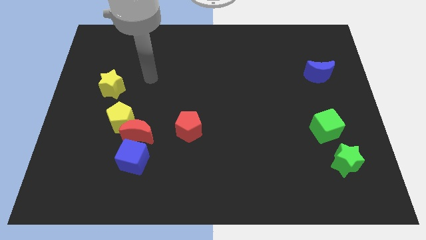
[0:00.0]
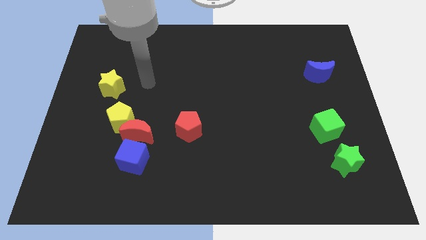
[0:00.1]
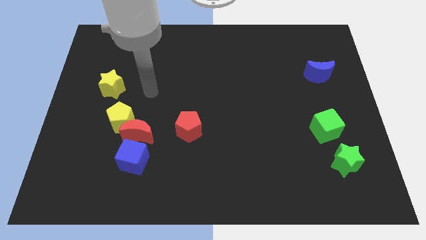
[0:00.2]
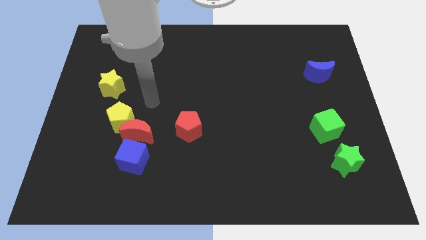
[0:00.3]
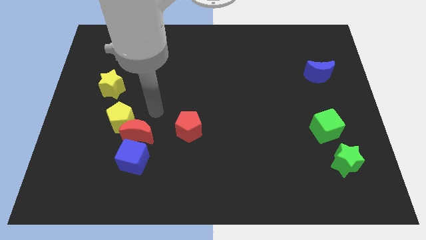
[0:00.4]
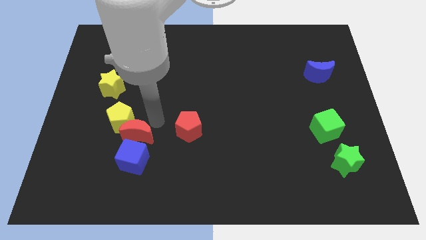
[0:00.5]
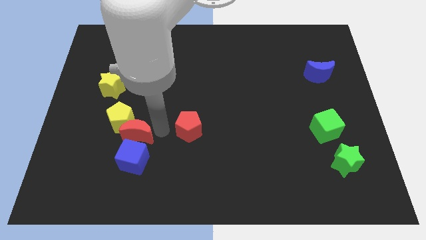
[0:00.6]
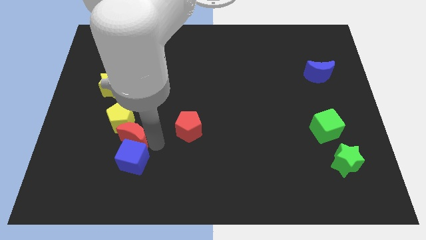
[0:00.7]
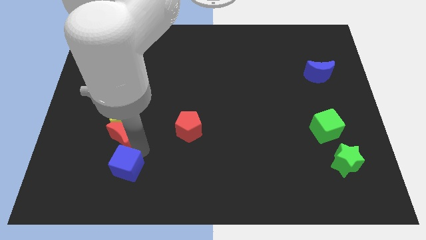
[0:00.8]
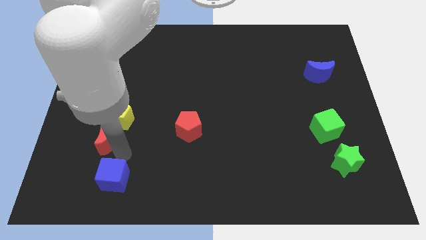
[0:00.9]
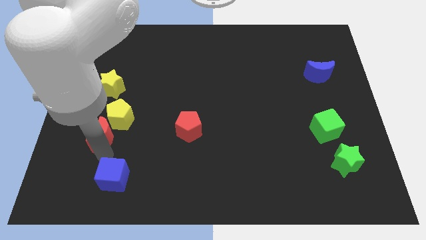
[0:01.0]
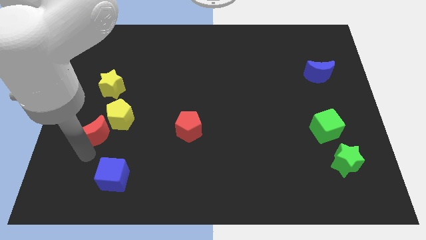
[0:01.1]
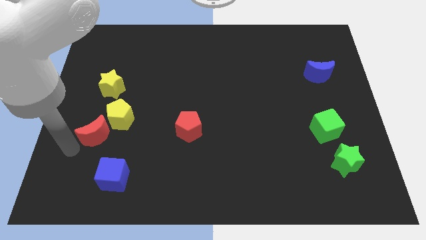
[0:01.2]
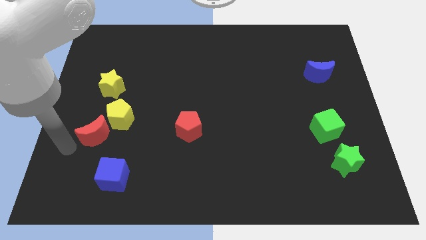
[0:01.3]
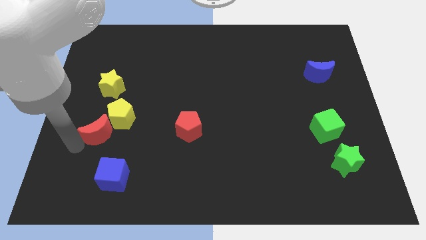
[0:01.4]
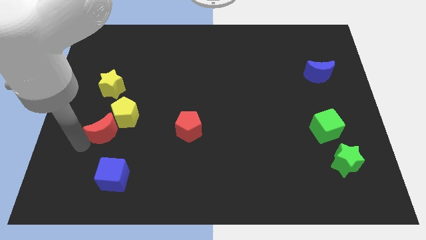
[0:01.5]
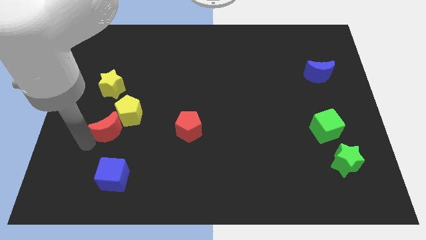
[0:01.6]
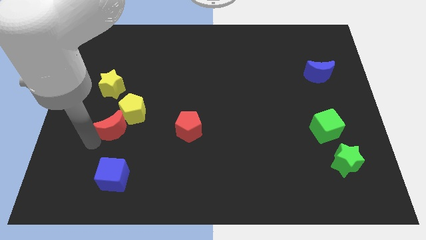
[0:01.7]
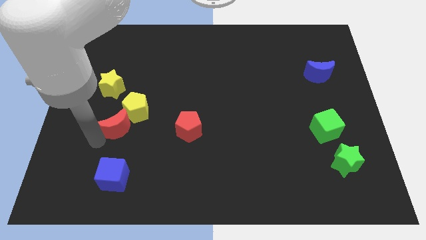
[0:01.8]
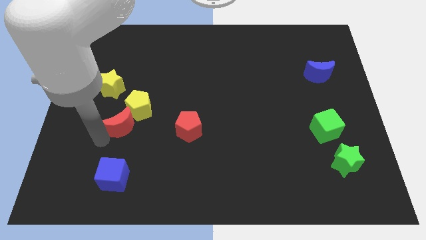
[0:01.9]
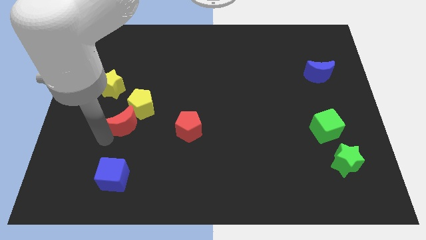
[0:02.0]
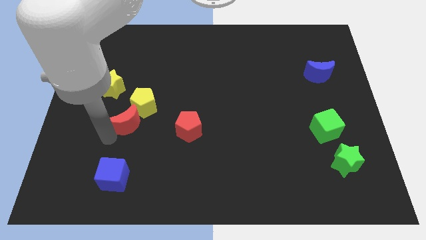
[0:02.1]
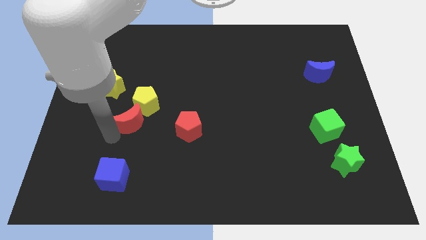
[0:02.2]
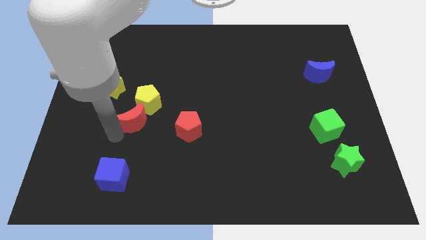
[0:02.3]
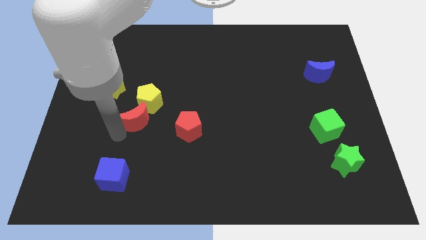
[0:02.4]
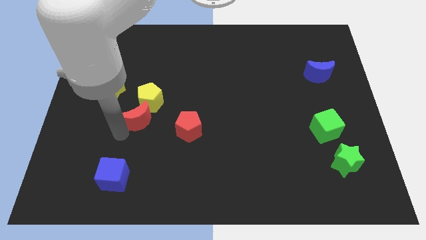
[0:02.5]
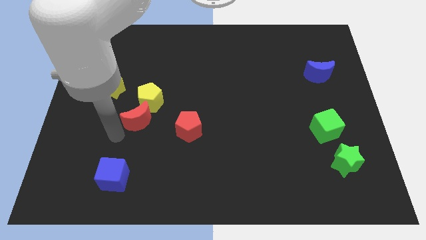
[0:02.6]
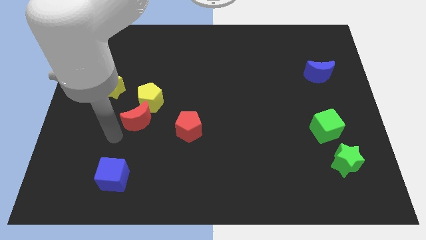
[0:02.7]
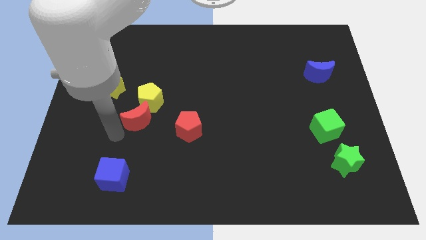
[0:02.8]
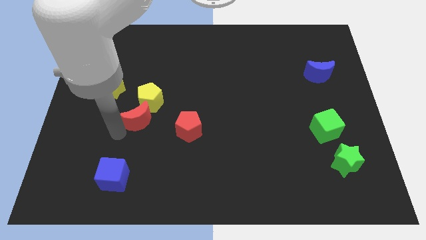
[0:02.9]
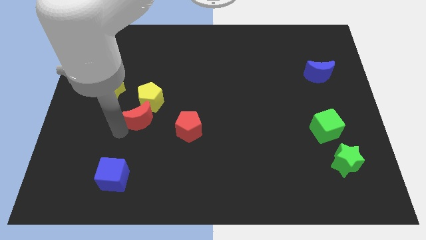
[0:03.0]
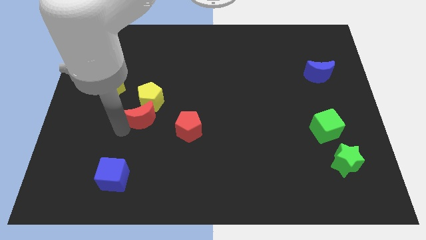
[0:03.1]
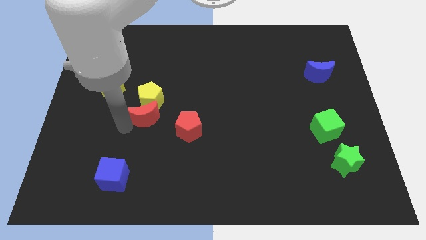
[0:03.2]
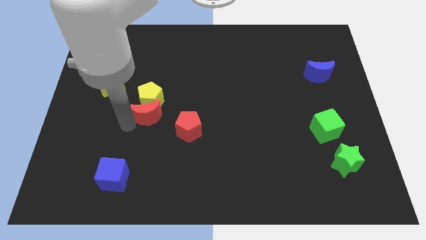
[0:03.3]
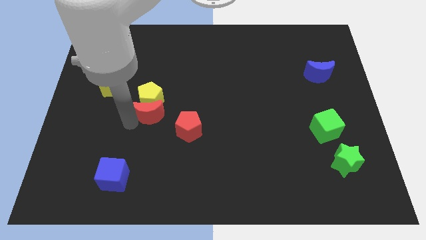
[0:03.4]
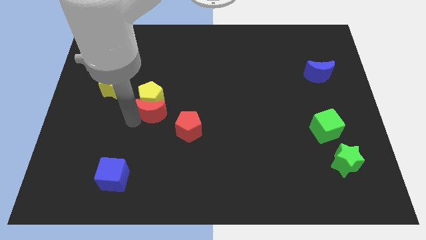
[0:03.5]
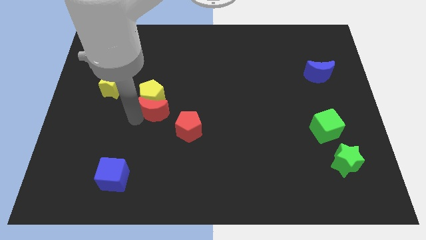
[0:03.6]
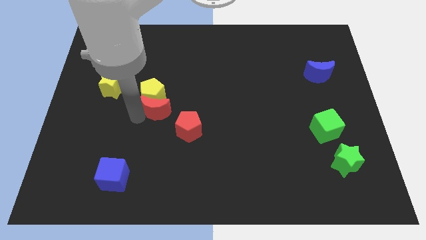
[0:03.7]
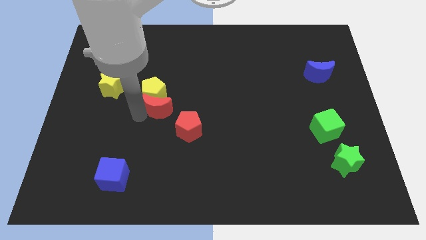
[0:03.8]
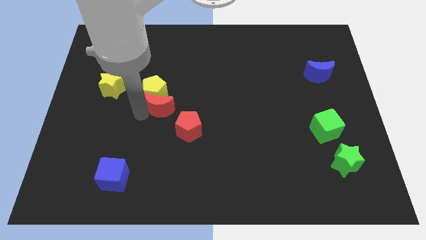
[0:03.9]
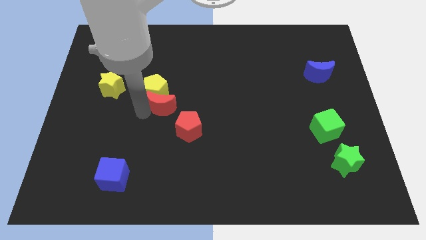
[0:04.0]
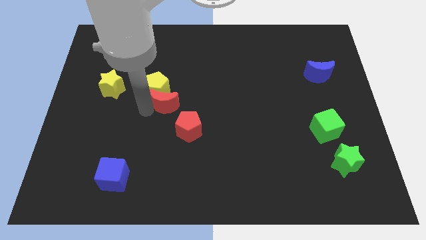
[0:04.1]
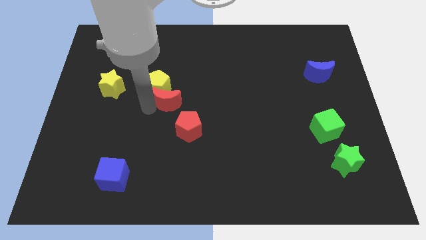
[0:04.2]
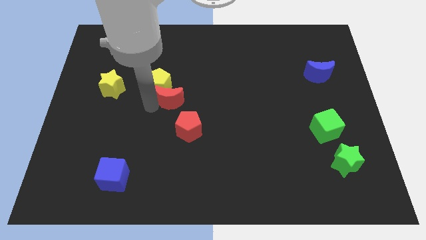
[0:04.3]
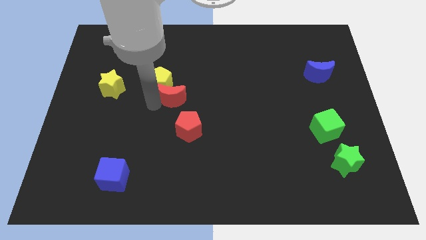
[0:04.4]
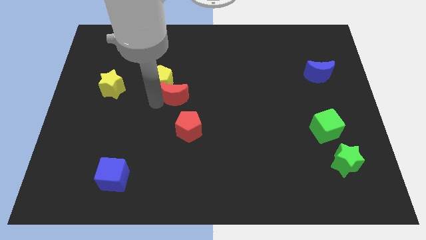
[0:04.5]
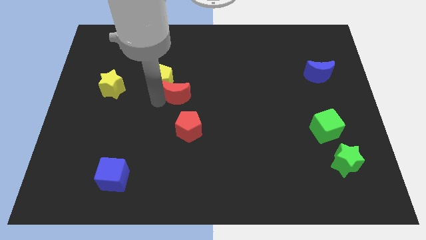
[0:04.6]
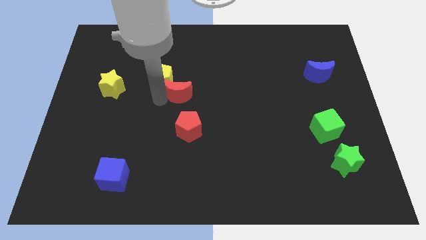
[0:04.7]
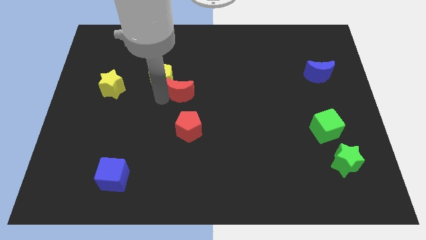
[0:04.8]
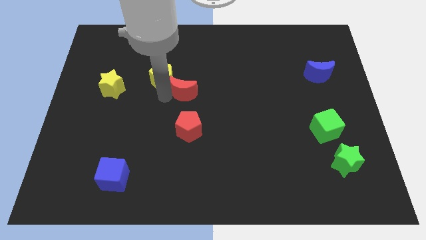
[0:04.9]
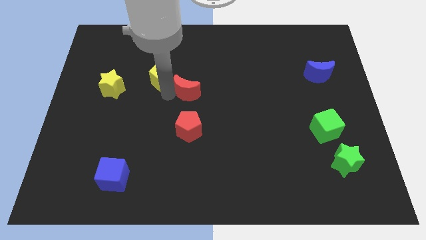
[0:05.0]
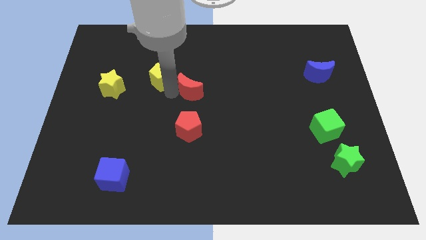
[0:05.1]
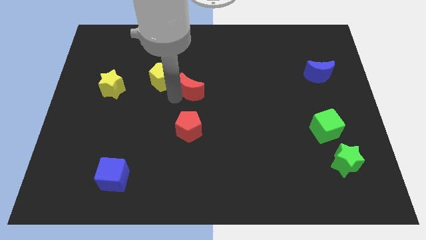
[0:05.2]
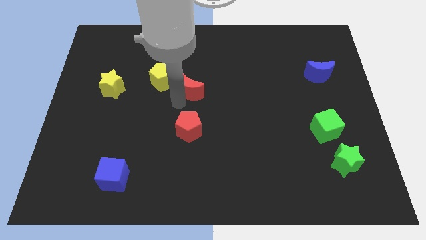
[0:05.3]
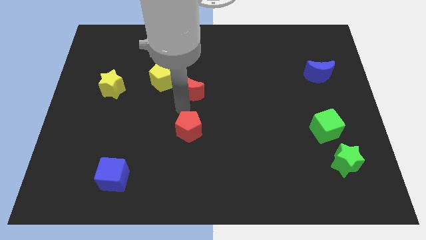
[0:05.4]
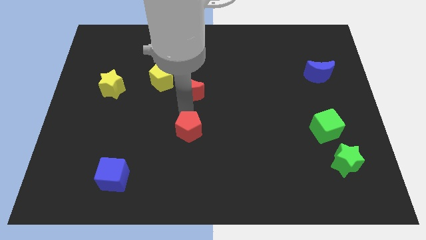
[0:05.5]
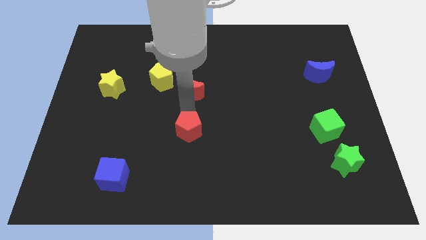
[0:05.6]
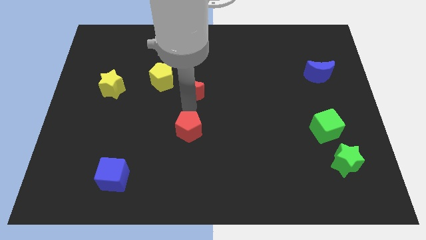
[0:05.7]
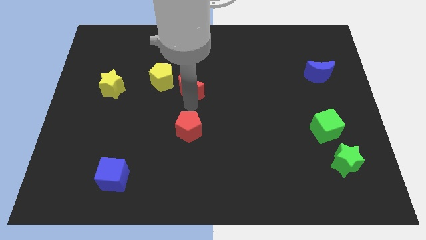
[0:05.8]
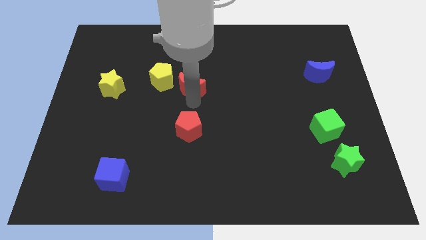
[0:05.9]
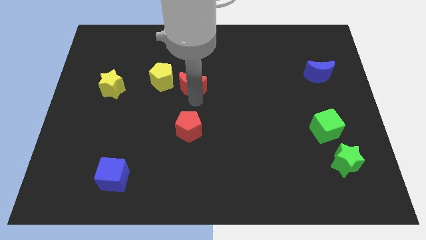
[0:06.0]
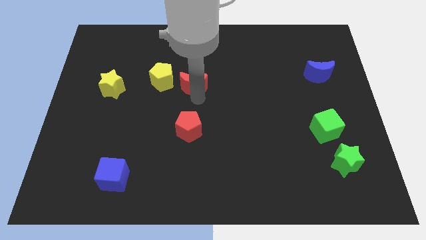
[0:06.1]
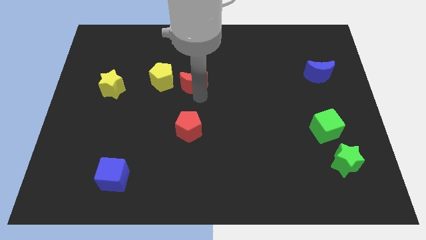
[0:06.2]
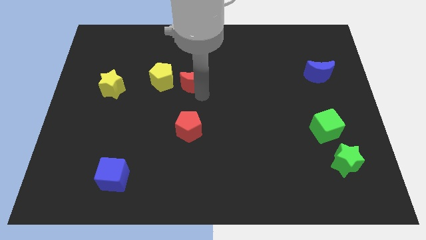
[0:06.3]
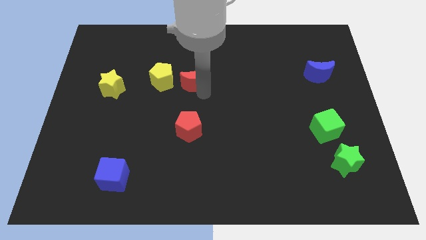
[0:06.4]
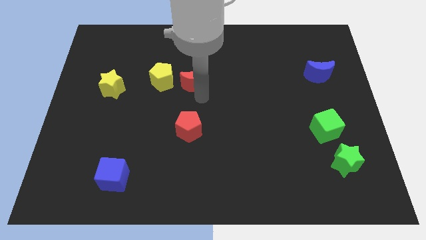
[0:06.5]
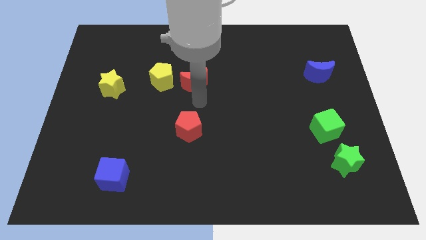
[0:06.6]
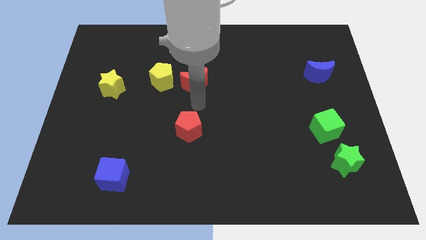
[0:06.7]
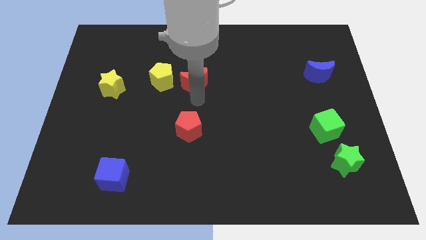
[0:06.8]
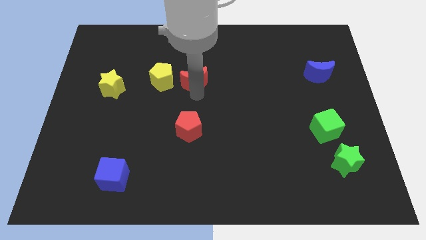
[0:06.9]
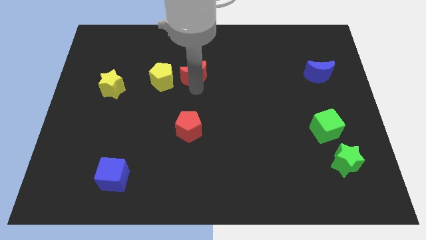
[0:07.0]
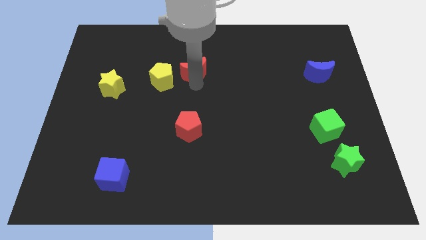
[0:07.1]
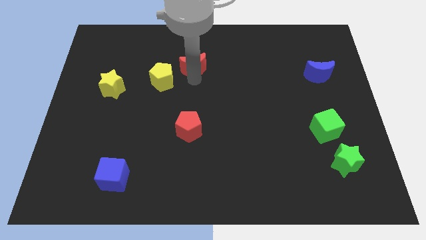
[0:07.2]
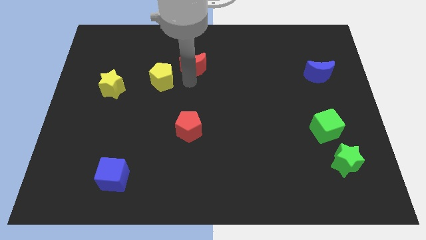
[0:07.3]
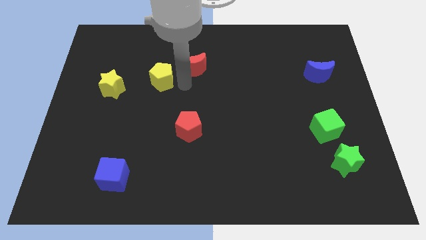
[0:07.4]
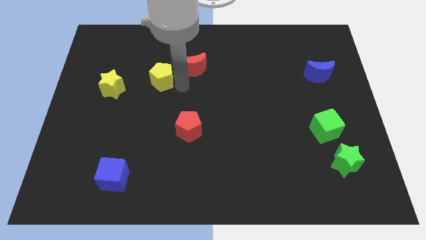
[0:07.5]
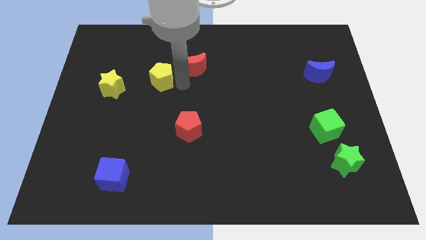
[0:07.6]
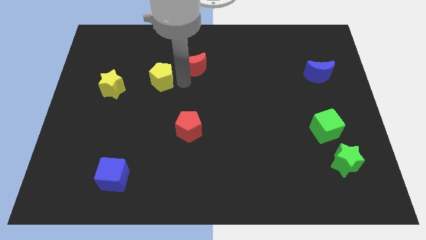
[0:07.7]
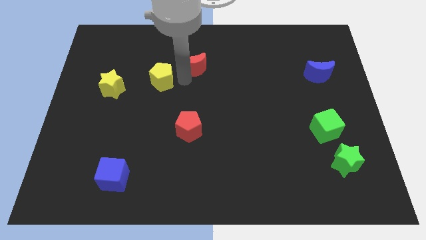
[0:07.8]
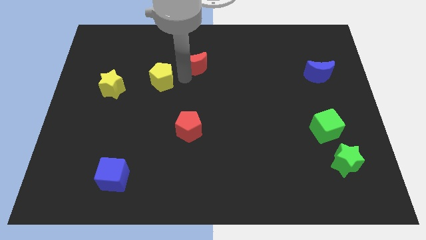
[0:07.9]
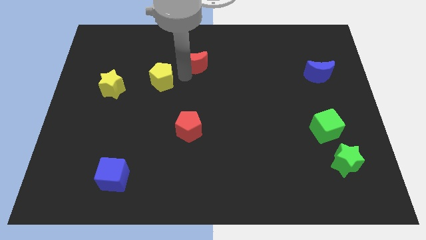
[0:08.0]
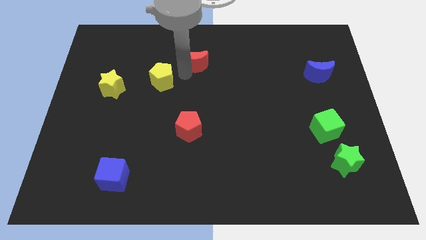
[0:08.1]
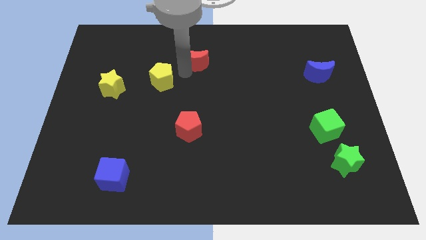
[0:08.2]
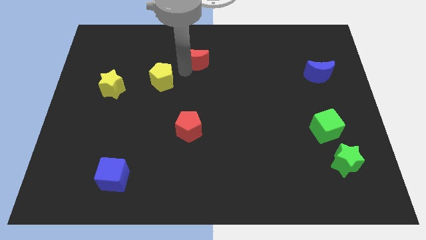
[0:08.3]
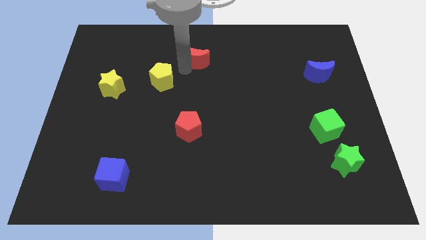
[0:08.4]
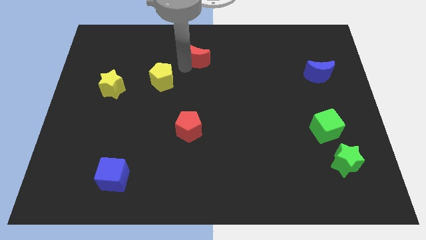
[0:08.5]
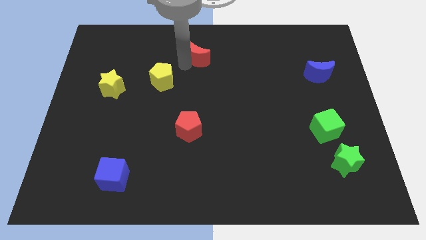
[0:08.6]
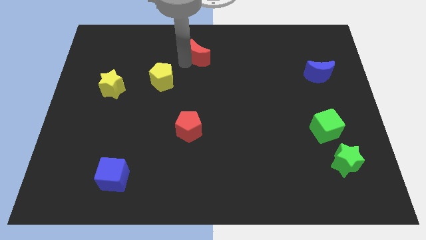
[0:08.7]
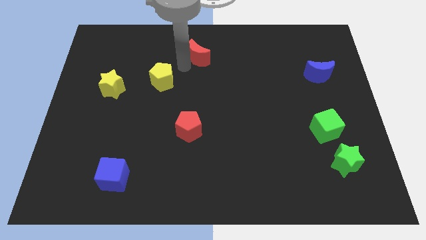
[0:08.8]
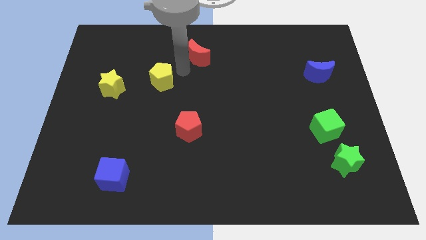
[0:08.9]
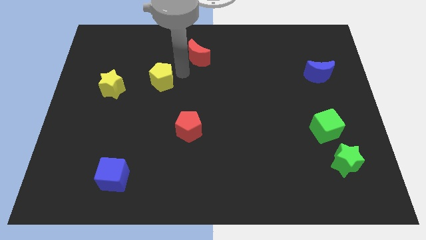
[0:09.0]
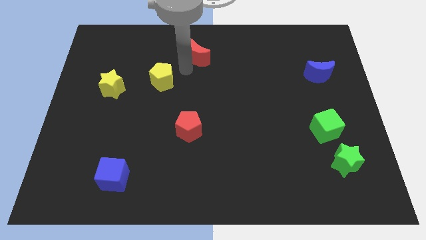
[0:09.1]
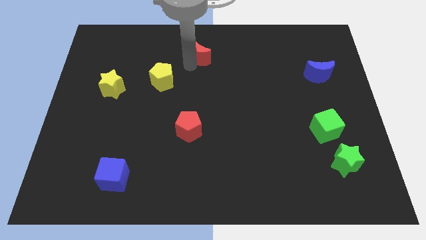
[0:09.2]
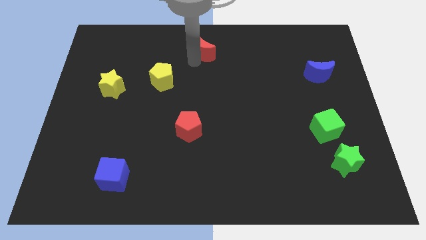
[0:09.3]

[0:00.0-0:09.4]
move the red moon to the top
